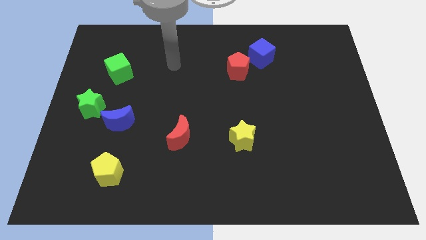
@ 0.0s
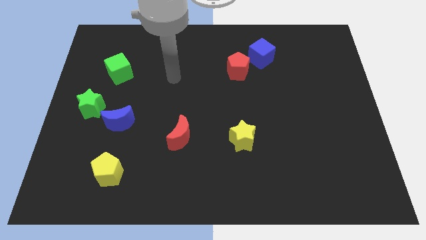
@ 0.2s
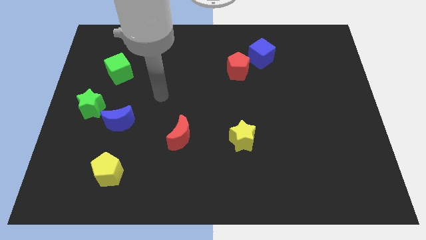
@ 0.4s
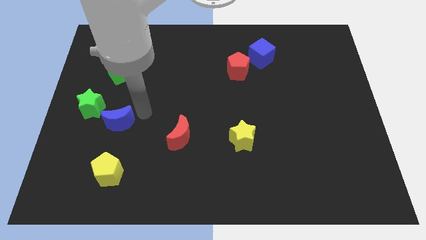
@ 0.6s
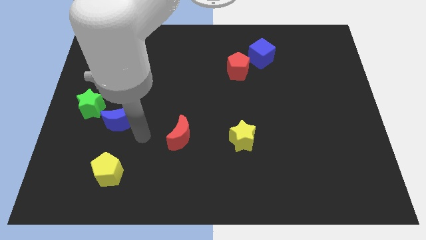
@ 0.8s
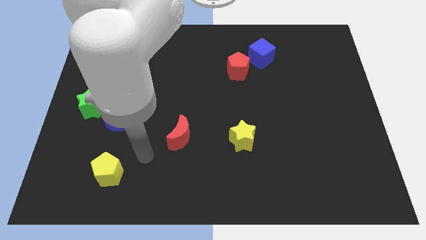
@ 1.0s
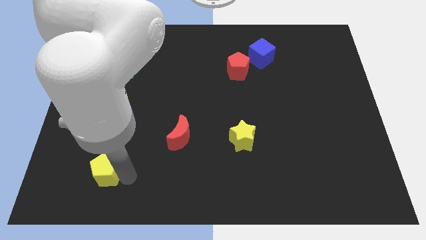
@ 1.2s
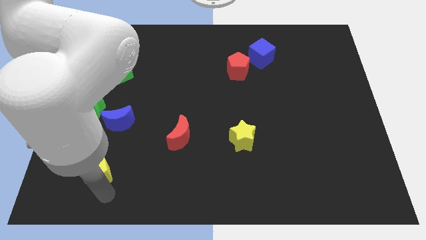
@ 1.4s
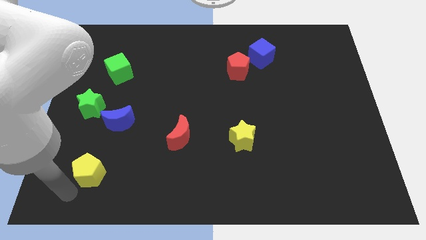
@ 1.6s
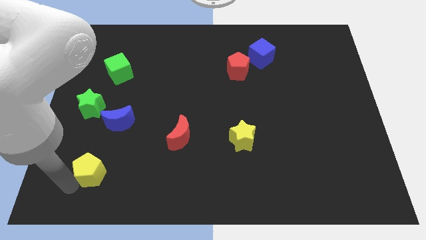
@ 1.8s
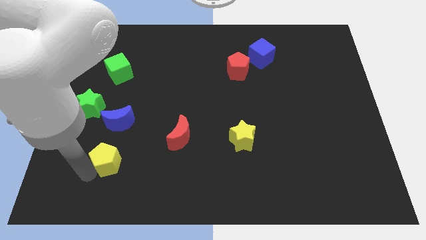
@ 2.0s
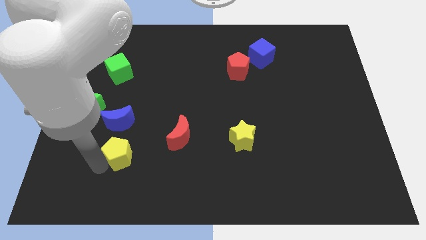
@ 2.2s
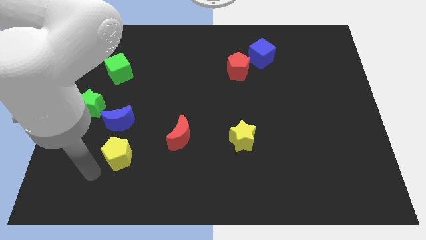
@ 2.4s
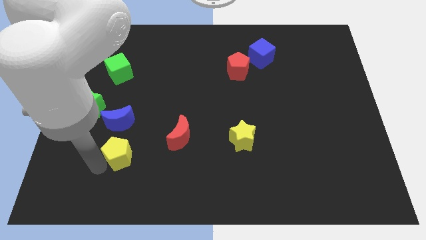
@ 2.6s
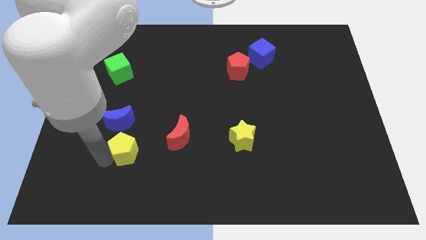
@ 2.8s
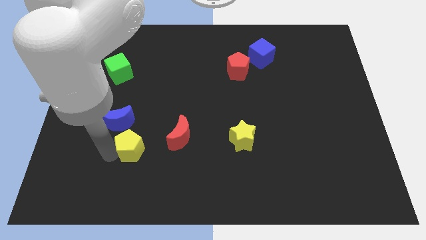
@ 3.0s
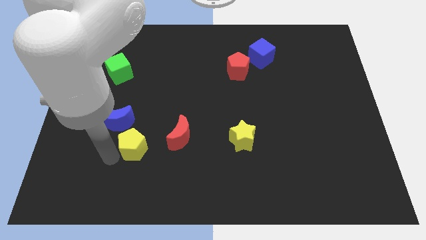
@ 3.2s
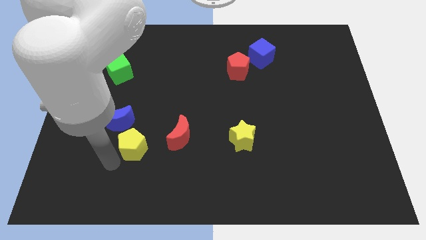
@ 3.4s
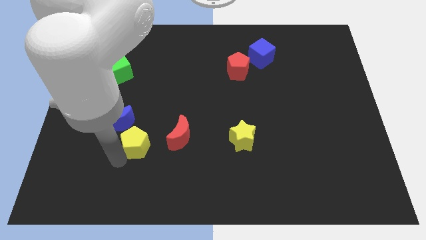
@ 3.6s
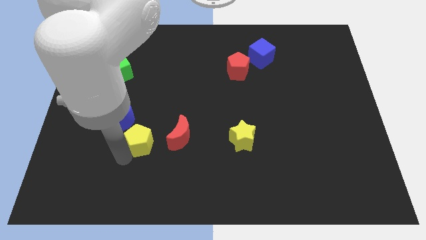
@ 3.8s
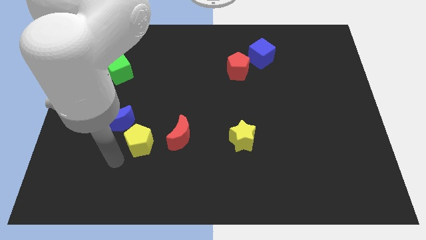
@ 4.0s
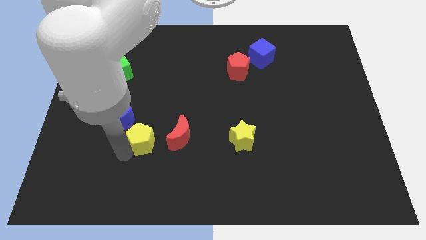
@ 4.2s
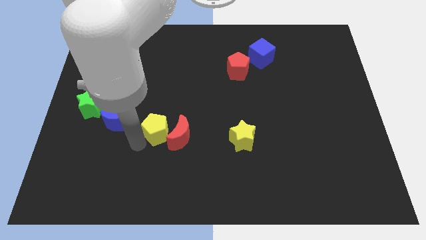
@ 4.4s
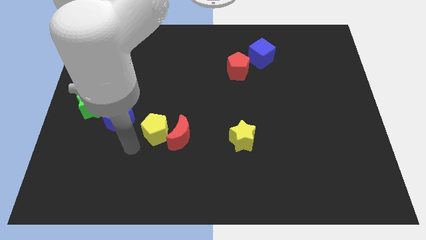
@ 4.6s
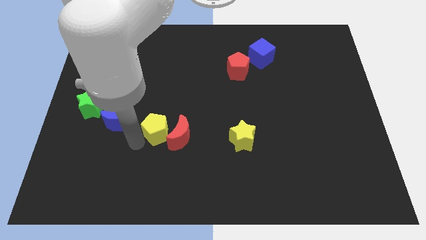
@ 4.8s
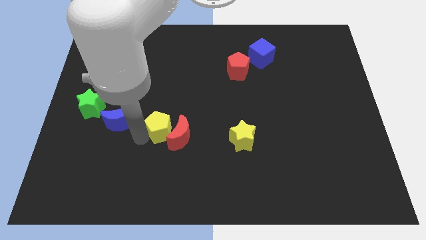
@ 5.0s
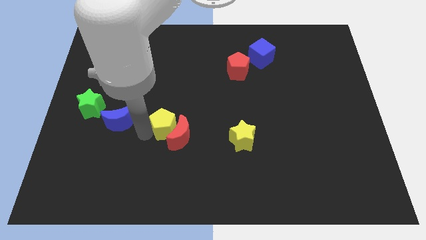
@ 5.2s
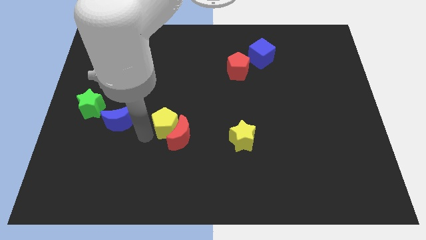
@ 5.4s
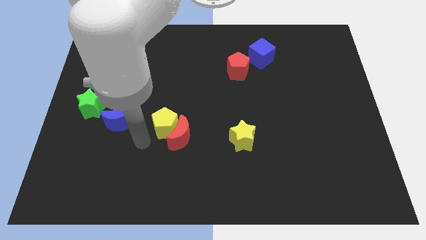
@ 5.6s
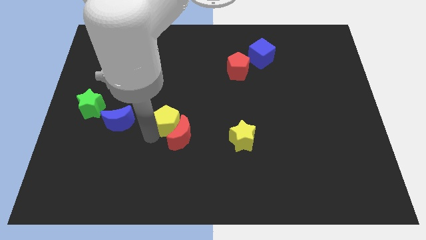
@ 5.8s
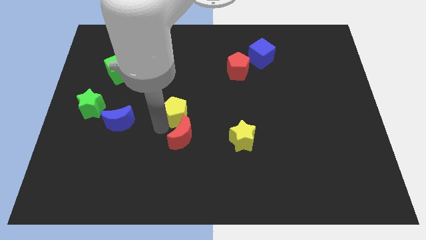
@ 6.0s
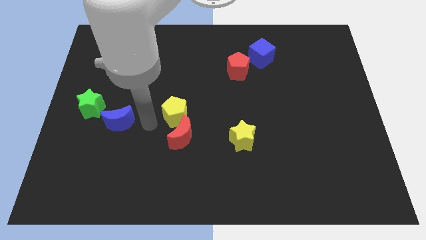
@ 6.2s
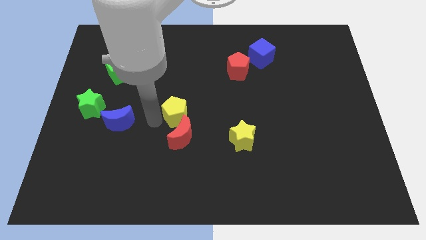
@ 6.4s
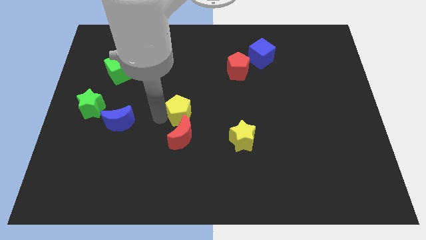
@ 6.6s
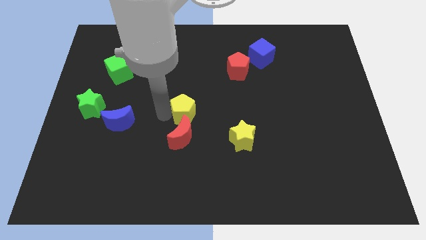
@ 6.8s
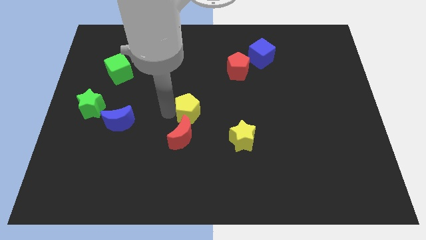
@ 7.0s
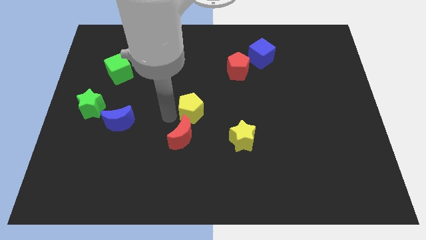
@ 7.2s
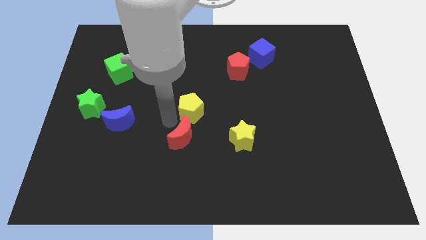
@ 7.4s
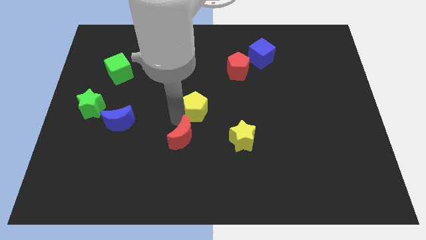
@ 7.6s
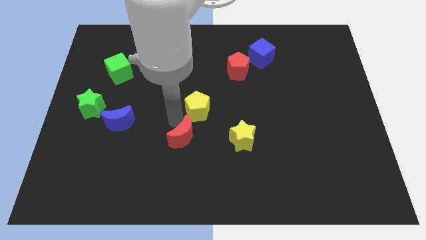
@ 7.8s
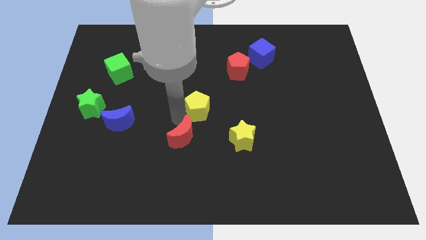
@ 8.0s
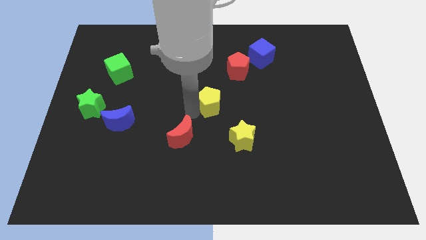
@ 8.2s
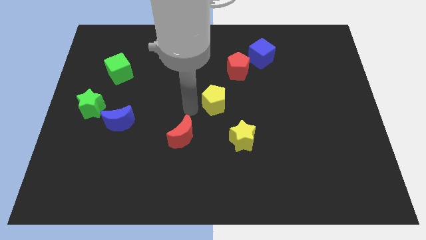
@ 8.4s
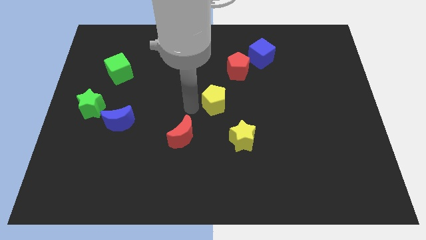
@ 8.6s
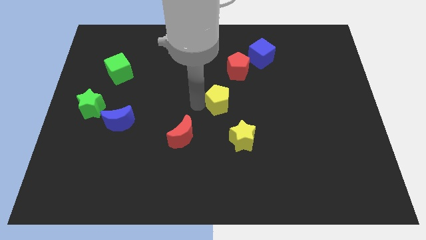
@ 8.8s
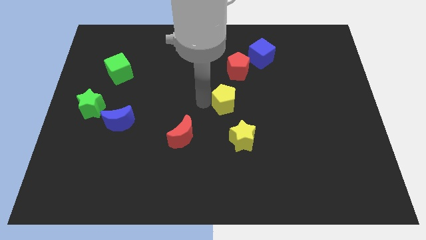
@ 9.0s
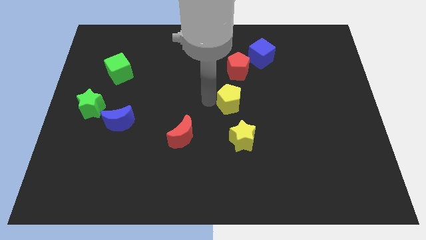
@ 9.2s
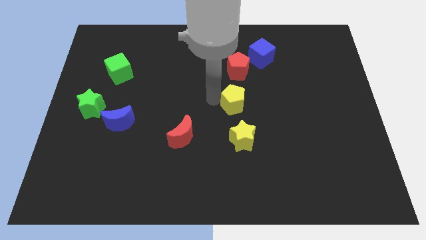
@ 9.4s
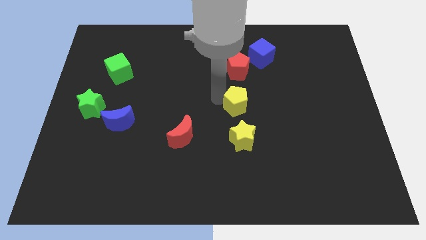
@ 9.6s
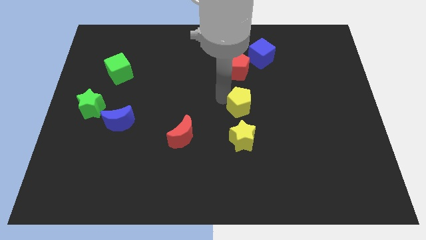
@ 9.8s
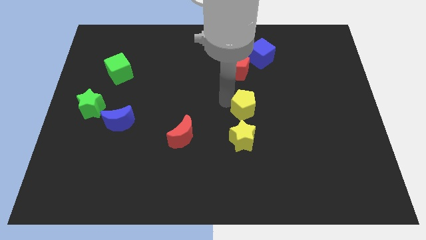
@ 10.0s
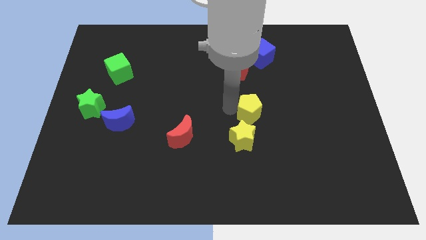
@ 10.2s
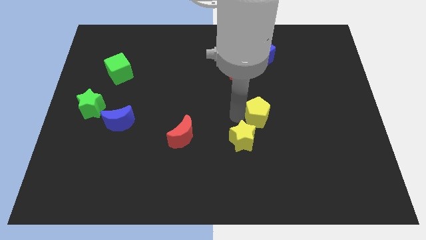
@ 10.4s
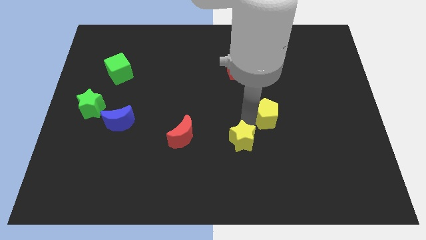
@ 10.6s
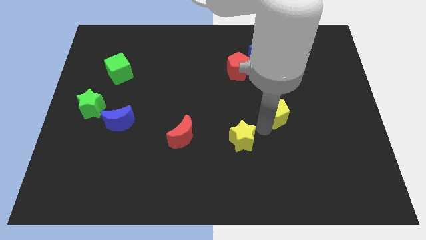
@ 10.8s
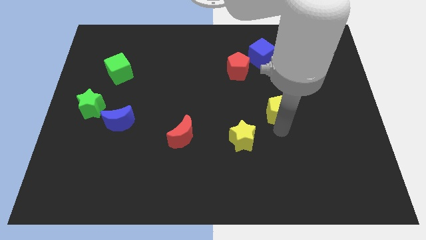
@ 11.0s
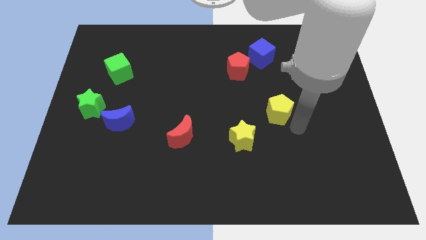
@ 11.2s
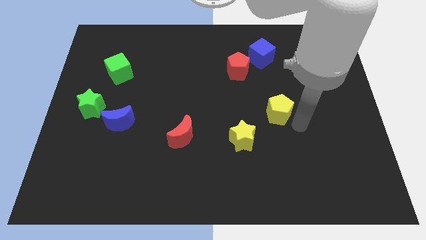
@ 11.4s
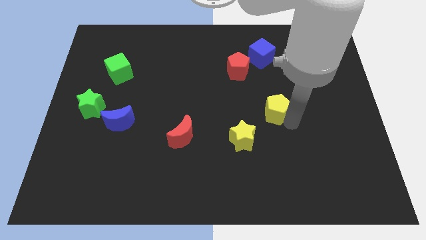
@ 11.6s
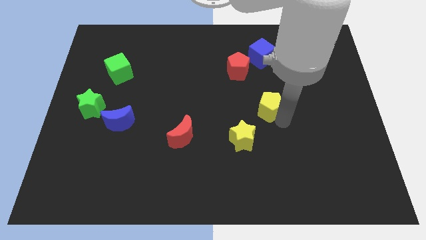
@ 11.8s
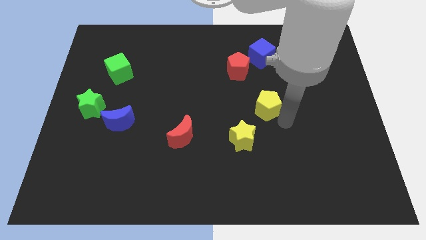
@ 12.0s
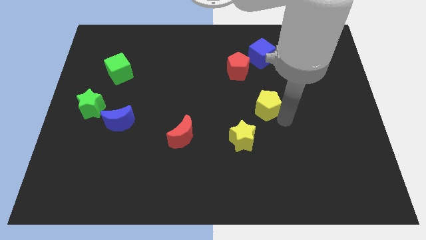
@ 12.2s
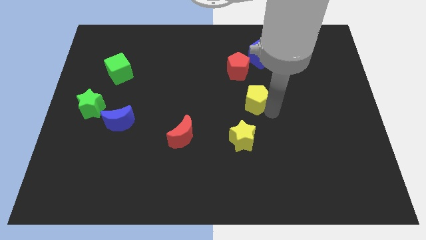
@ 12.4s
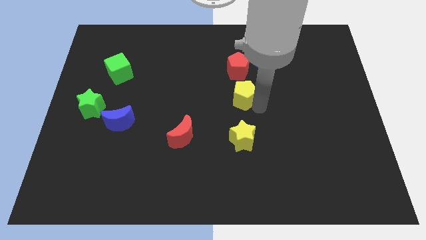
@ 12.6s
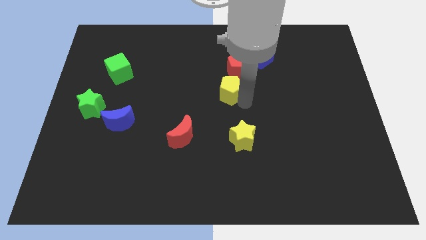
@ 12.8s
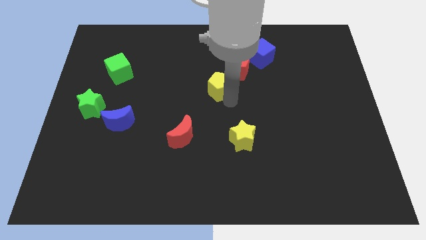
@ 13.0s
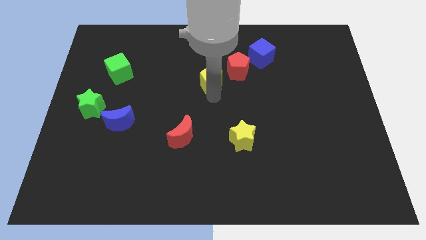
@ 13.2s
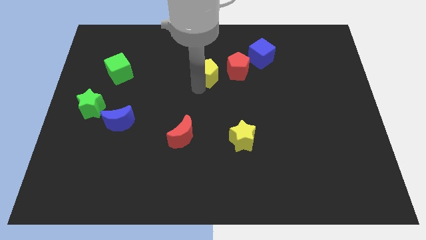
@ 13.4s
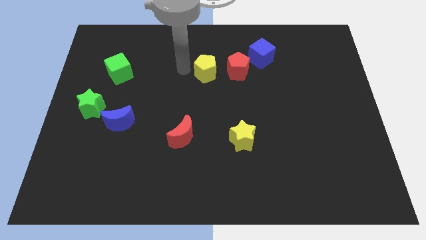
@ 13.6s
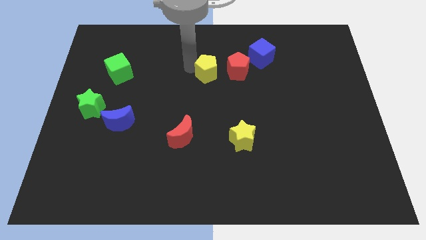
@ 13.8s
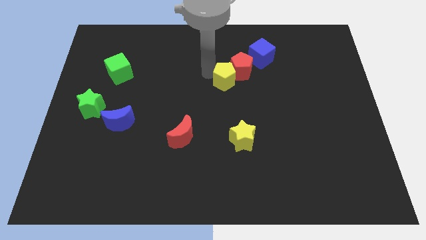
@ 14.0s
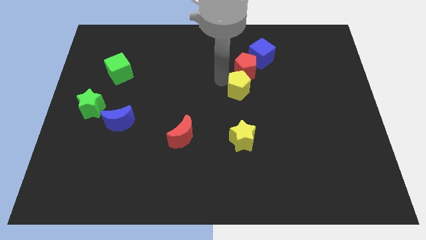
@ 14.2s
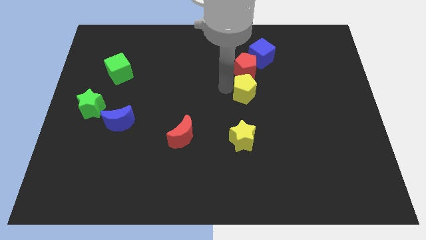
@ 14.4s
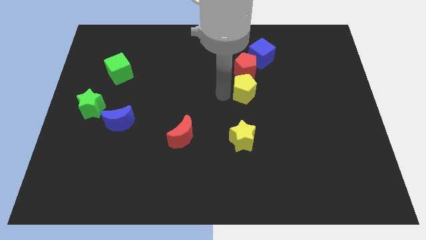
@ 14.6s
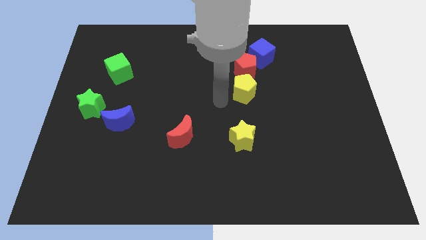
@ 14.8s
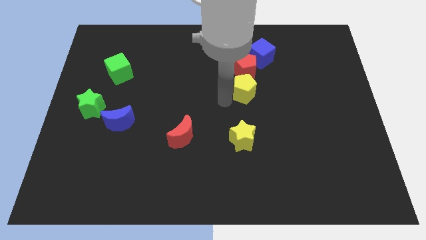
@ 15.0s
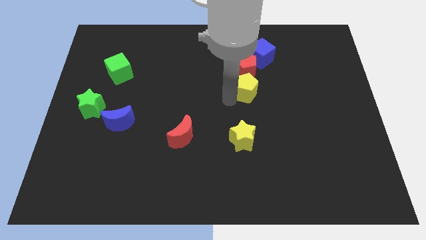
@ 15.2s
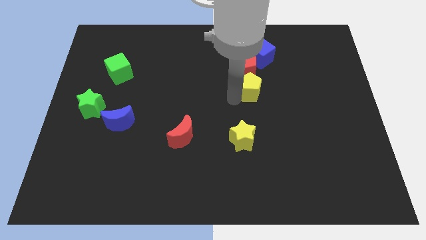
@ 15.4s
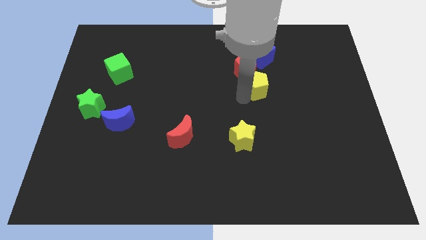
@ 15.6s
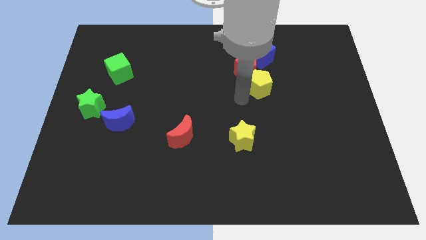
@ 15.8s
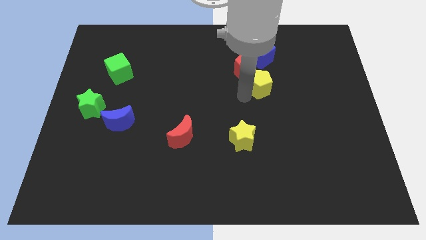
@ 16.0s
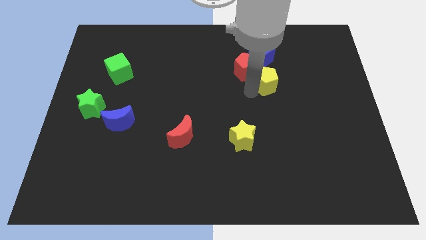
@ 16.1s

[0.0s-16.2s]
push the yellow pentagon to the right side of the red pentagon
